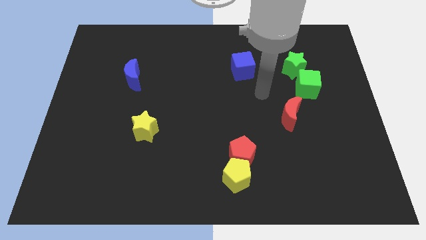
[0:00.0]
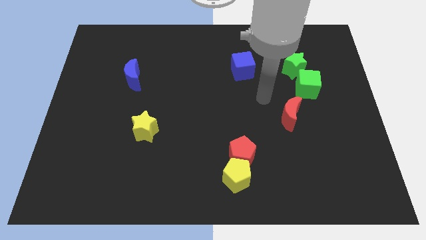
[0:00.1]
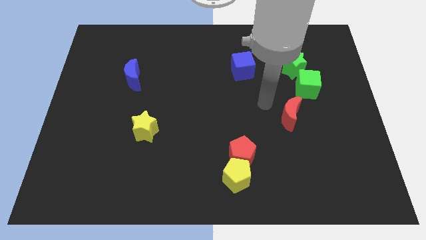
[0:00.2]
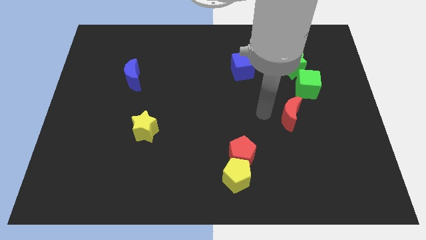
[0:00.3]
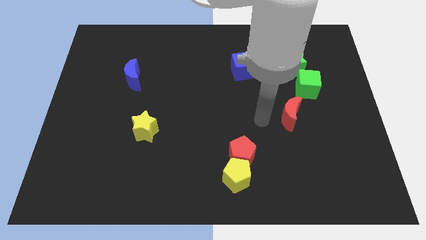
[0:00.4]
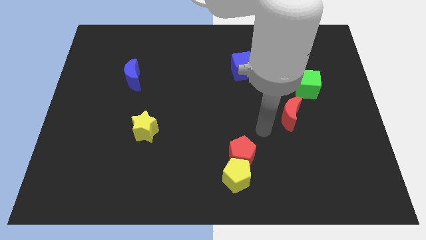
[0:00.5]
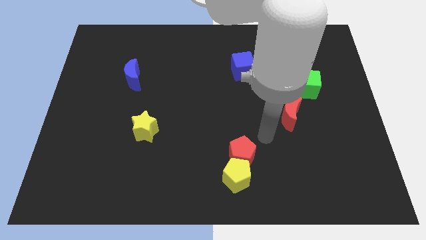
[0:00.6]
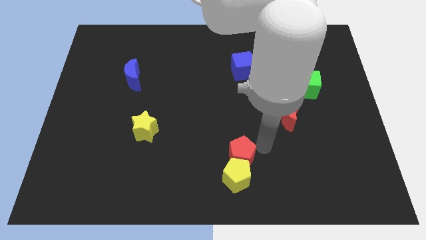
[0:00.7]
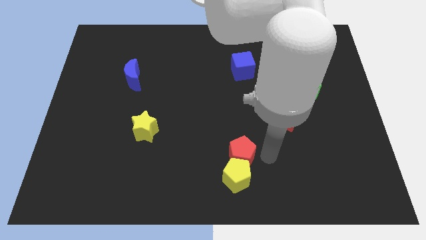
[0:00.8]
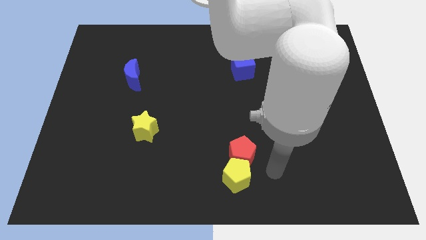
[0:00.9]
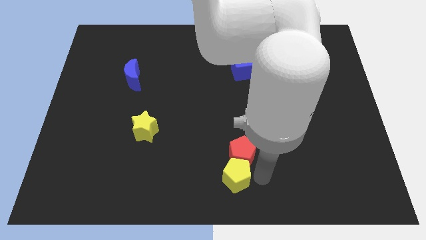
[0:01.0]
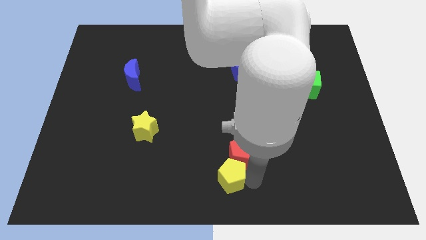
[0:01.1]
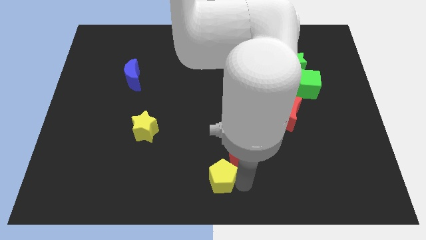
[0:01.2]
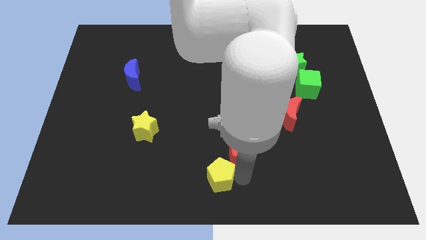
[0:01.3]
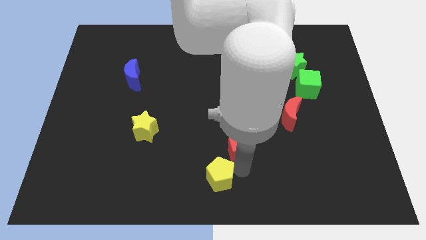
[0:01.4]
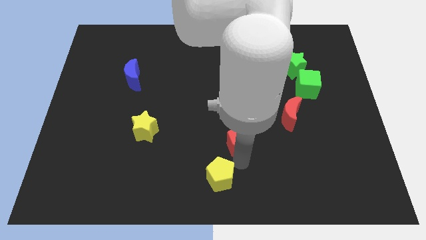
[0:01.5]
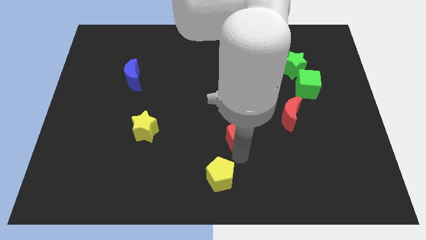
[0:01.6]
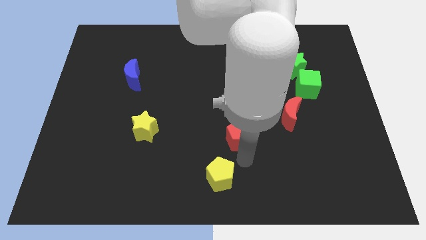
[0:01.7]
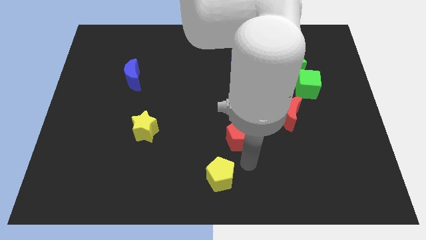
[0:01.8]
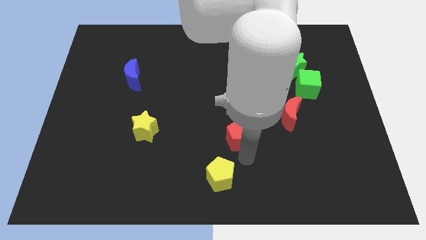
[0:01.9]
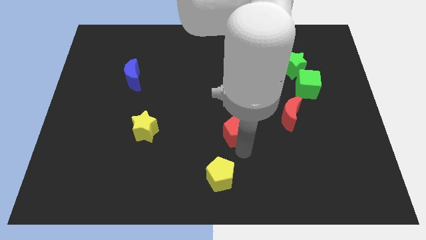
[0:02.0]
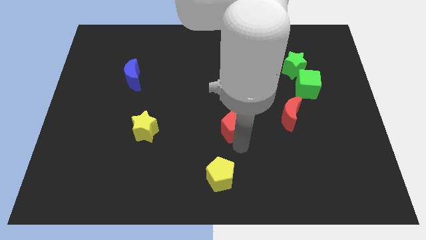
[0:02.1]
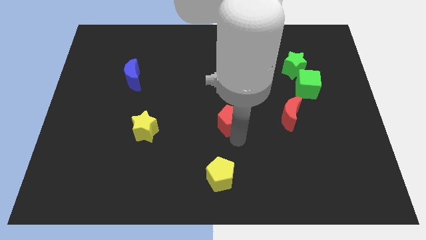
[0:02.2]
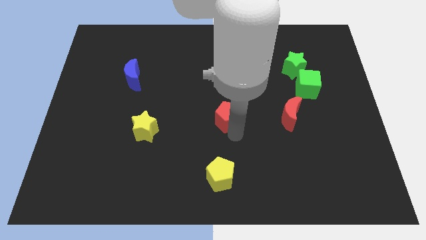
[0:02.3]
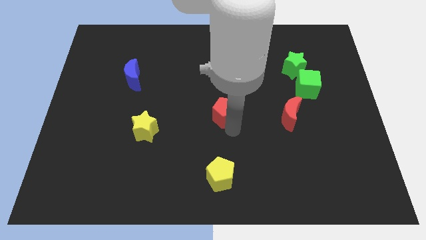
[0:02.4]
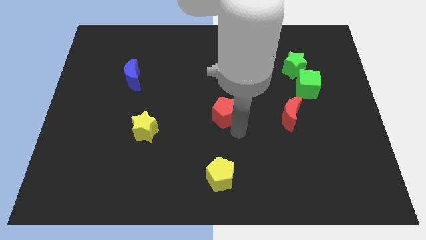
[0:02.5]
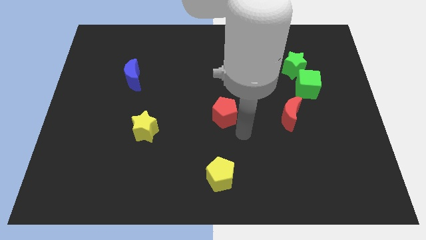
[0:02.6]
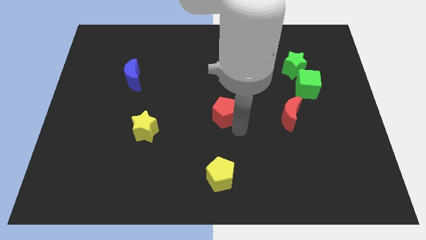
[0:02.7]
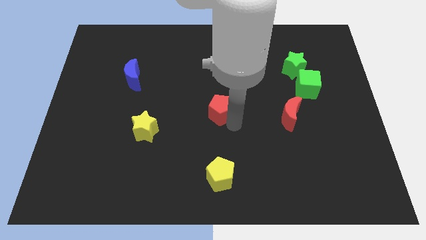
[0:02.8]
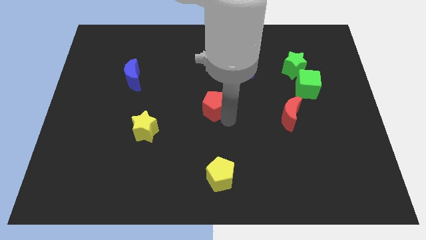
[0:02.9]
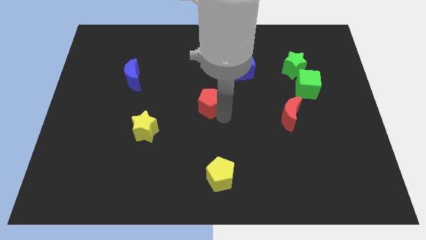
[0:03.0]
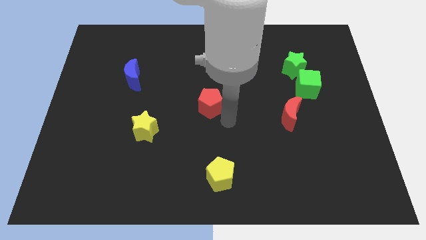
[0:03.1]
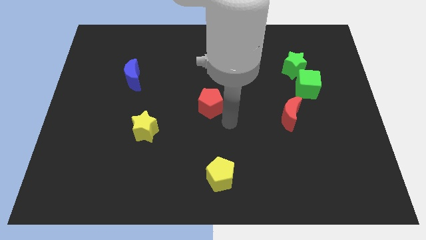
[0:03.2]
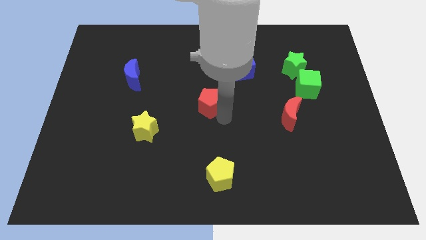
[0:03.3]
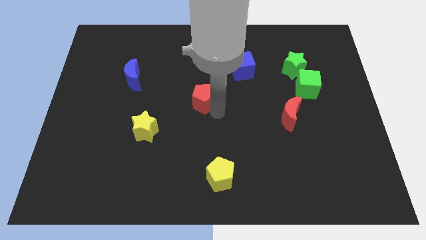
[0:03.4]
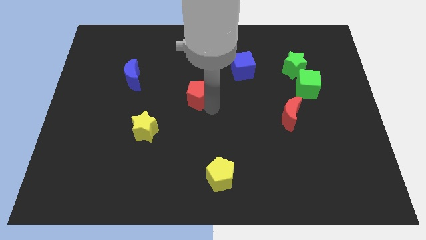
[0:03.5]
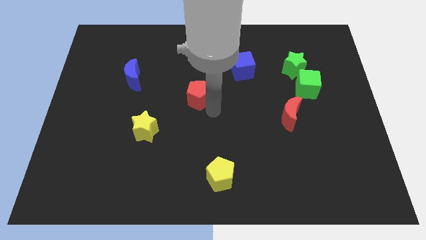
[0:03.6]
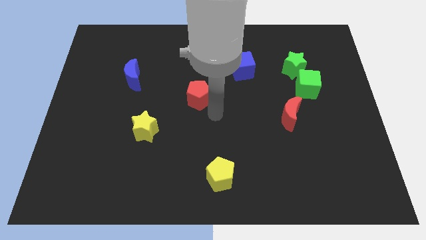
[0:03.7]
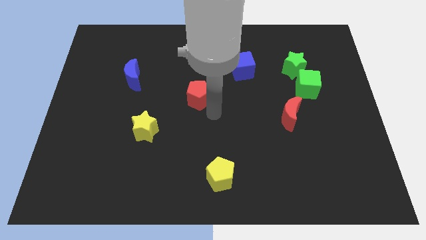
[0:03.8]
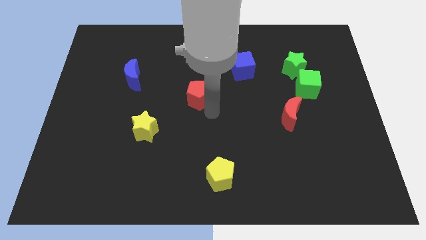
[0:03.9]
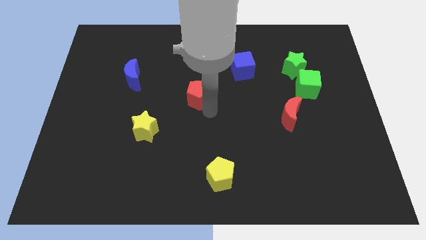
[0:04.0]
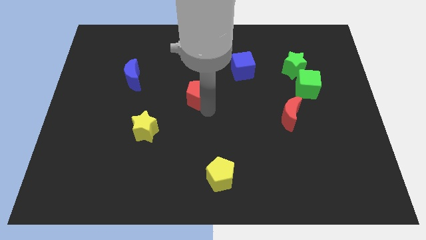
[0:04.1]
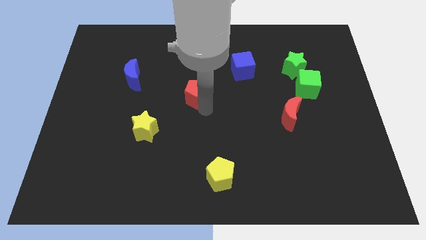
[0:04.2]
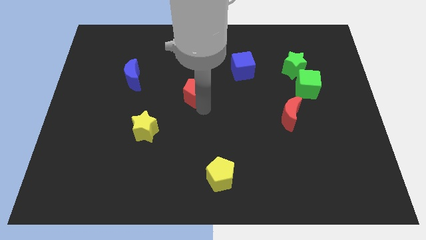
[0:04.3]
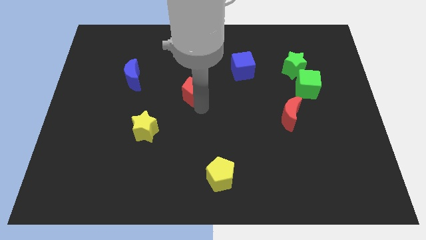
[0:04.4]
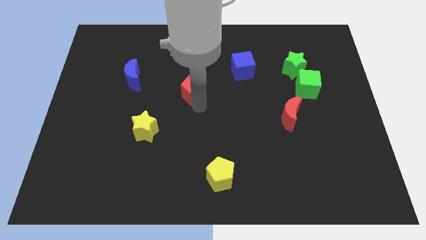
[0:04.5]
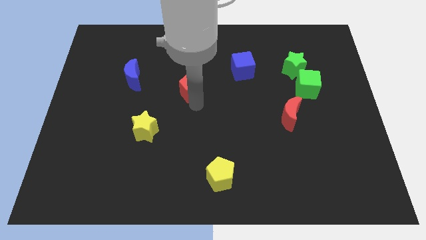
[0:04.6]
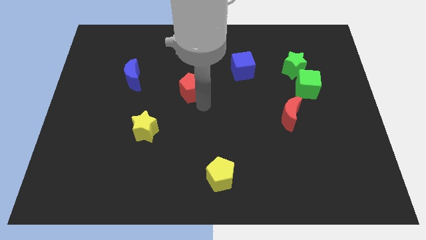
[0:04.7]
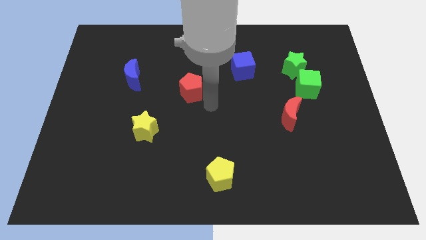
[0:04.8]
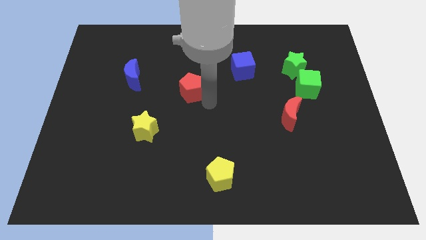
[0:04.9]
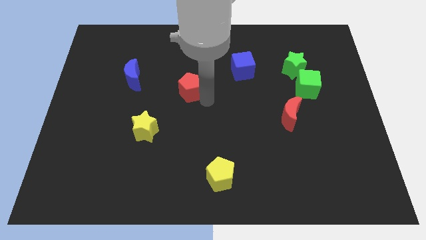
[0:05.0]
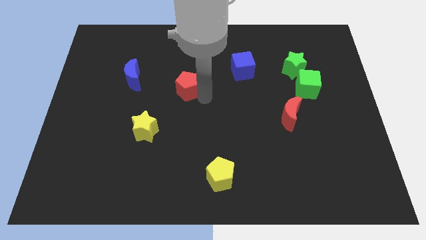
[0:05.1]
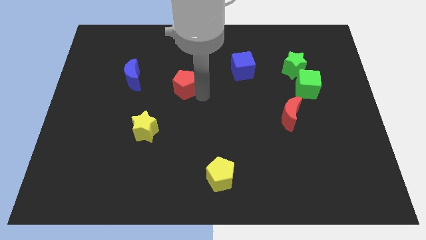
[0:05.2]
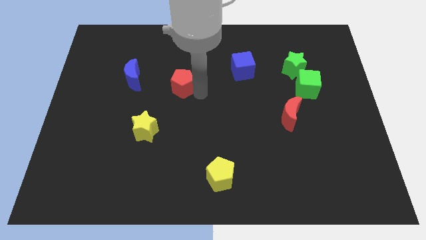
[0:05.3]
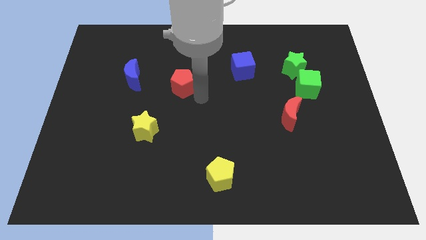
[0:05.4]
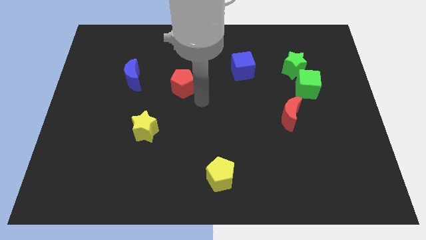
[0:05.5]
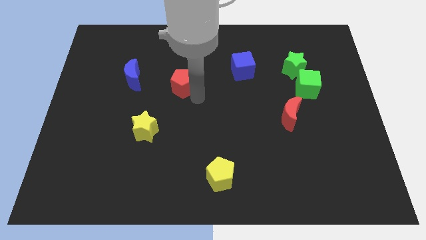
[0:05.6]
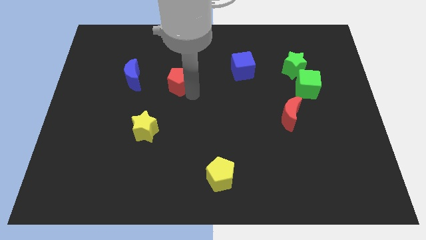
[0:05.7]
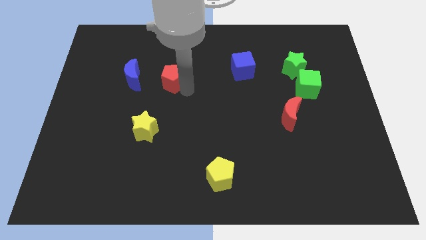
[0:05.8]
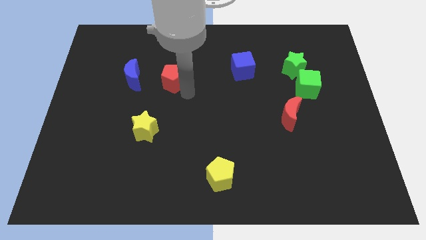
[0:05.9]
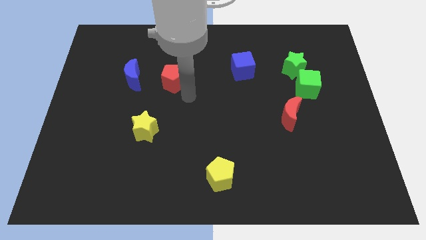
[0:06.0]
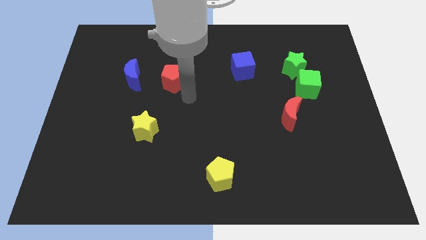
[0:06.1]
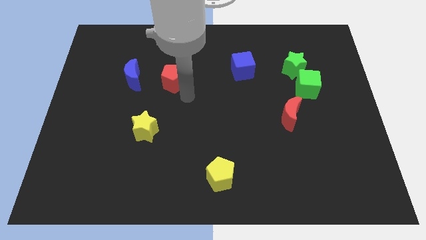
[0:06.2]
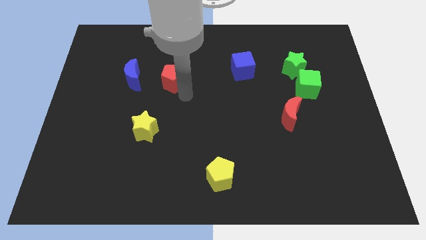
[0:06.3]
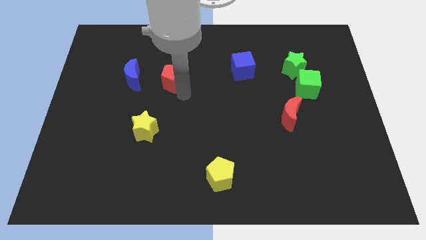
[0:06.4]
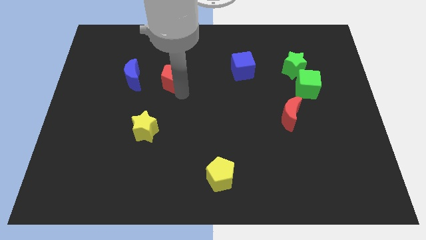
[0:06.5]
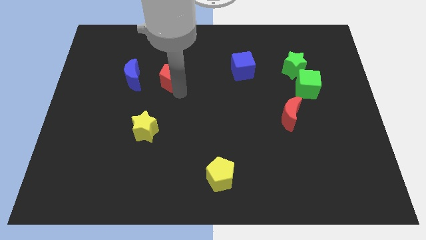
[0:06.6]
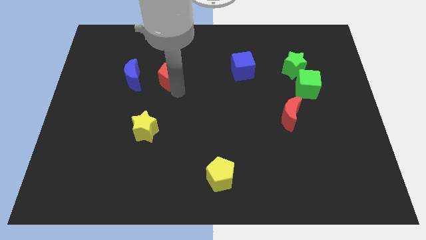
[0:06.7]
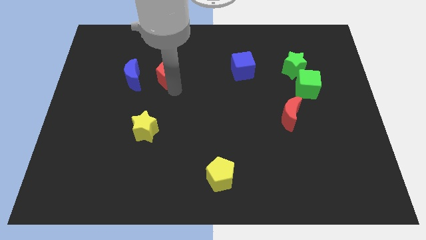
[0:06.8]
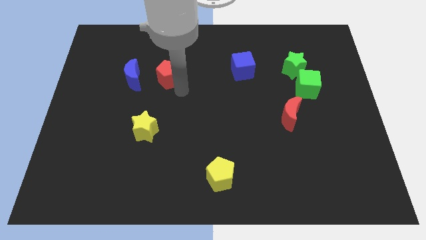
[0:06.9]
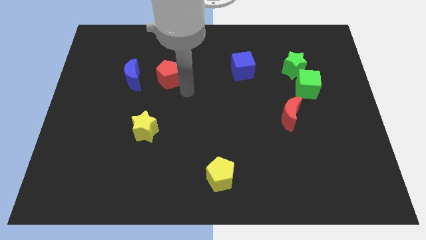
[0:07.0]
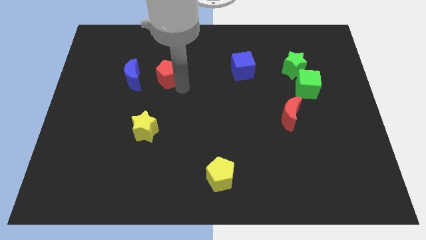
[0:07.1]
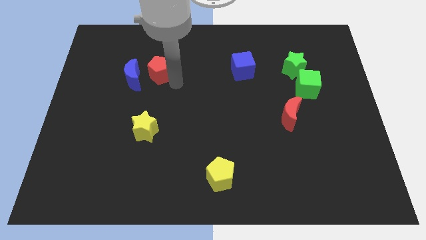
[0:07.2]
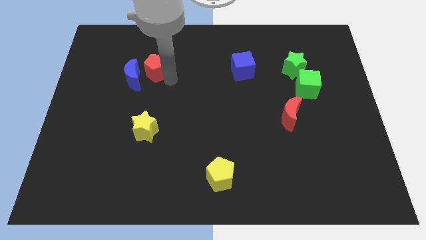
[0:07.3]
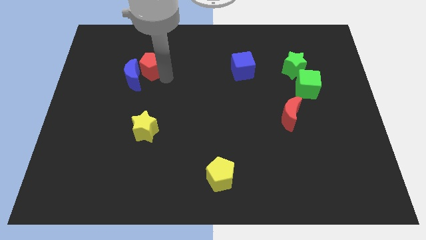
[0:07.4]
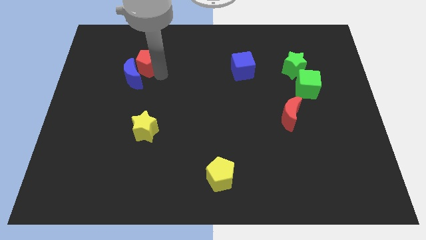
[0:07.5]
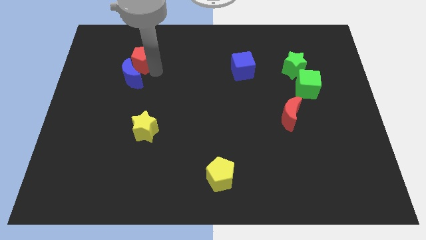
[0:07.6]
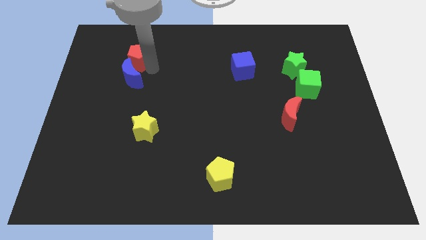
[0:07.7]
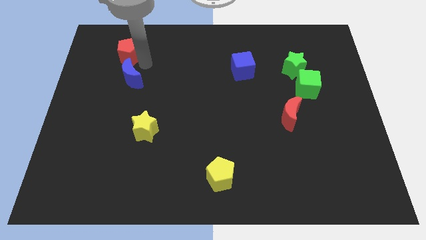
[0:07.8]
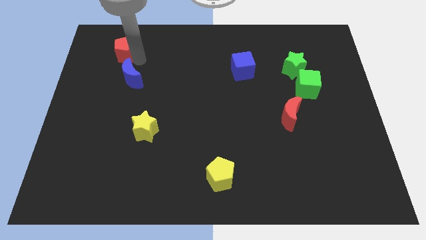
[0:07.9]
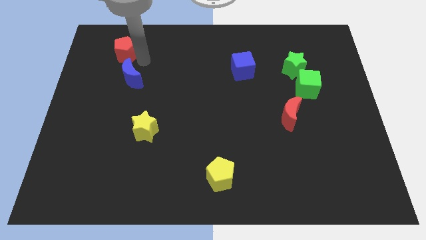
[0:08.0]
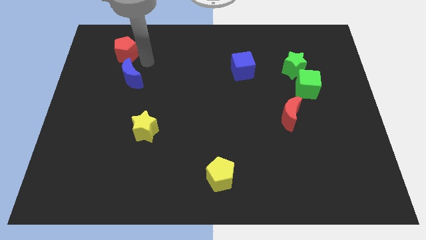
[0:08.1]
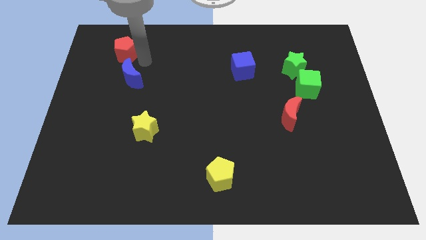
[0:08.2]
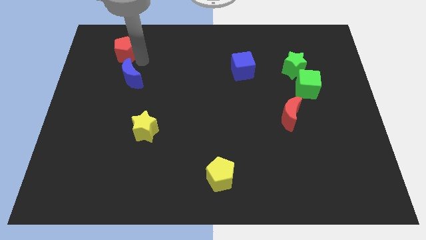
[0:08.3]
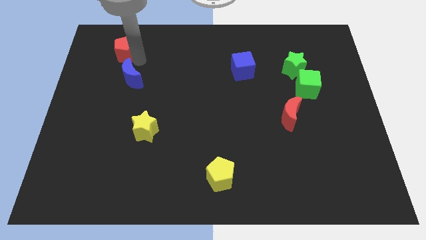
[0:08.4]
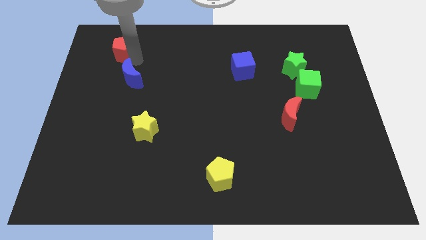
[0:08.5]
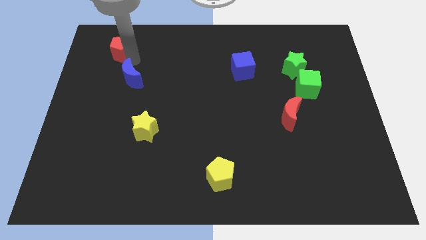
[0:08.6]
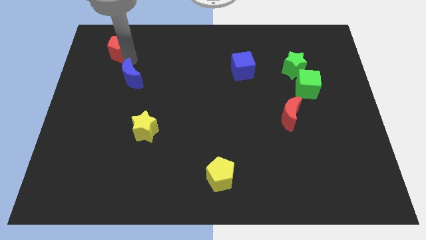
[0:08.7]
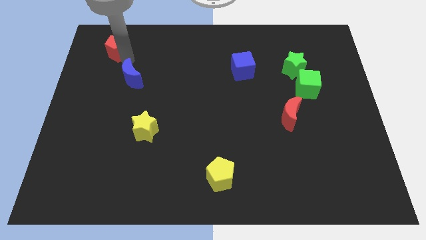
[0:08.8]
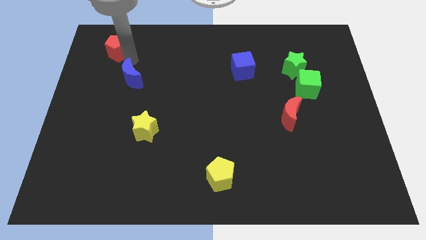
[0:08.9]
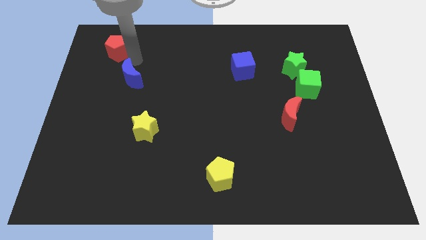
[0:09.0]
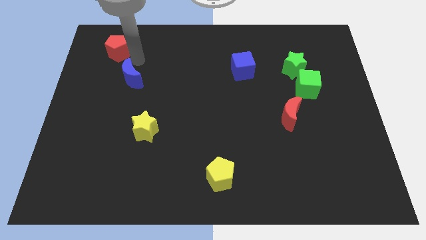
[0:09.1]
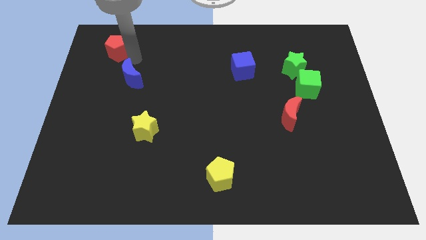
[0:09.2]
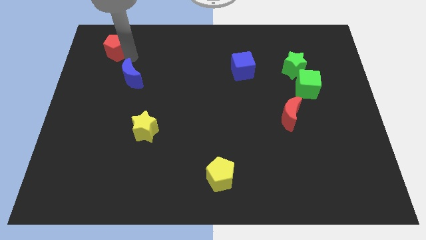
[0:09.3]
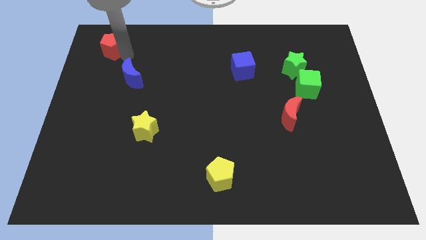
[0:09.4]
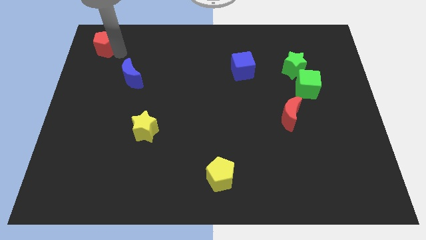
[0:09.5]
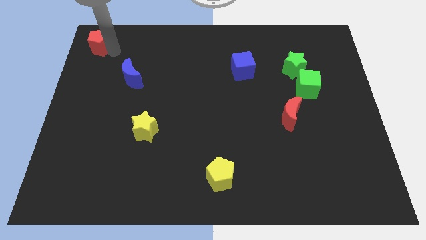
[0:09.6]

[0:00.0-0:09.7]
push the red pentagon to the top left of the board
